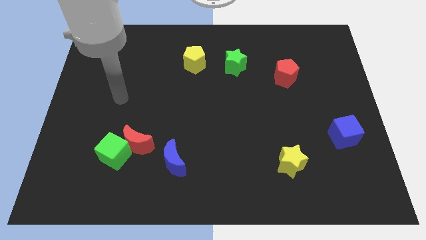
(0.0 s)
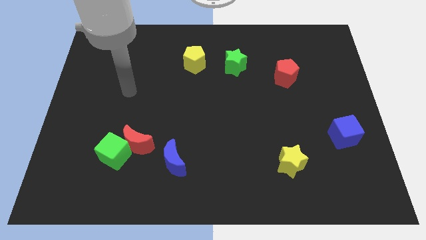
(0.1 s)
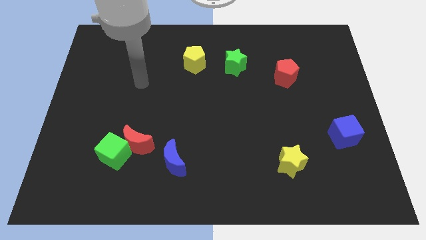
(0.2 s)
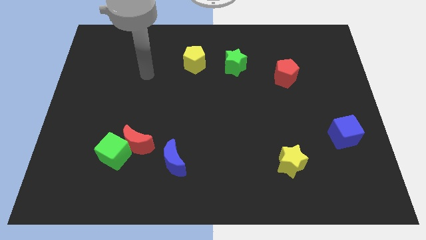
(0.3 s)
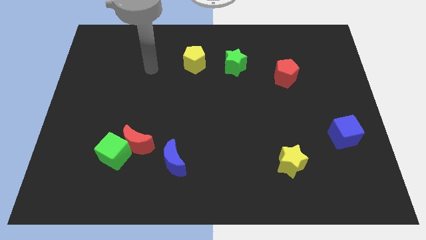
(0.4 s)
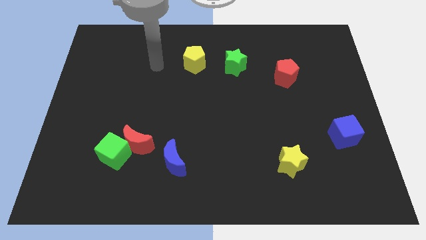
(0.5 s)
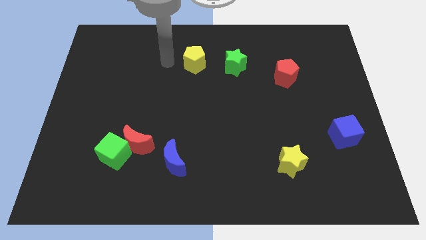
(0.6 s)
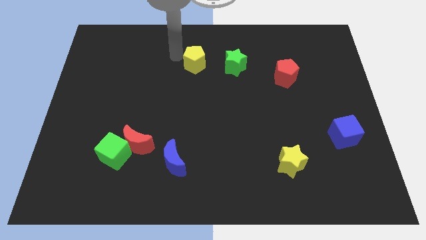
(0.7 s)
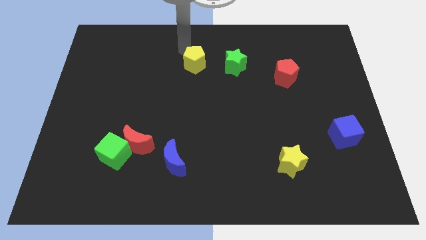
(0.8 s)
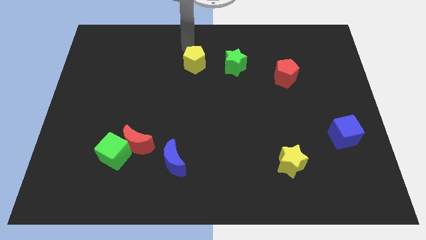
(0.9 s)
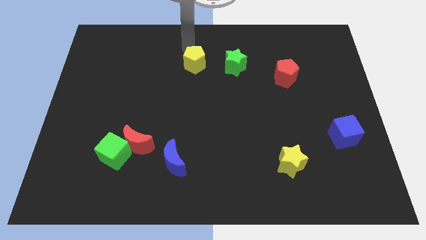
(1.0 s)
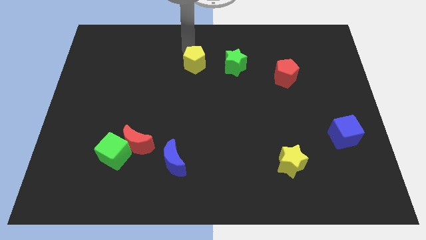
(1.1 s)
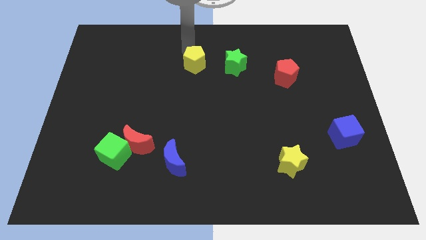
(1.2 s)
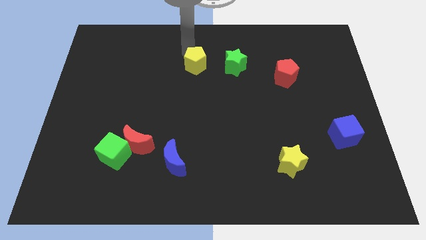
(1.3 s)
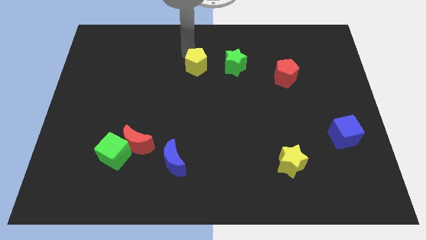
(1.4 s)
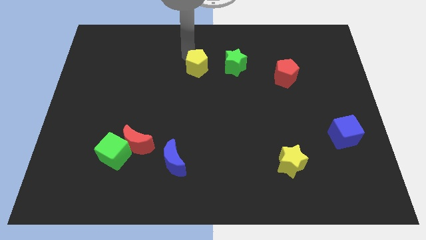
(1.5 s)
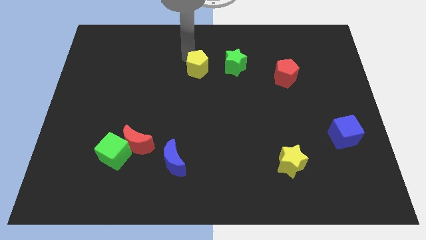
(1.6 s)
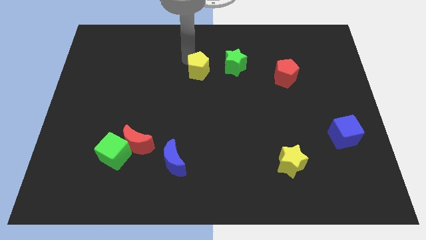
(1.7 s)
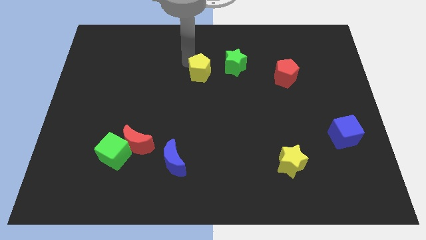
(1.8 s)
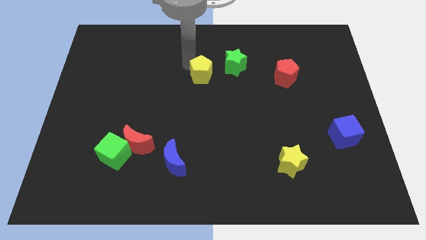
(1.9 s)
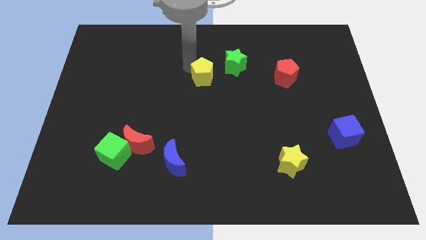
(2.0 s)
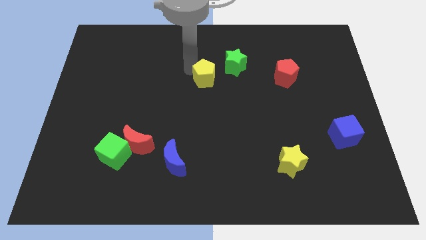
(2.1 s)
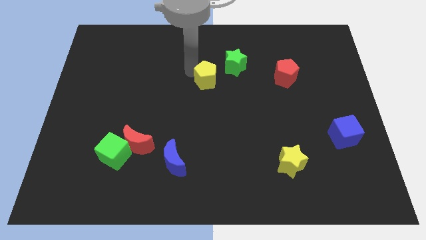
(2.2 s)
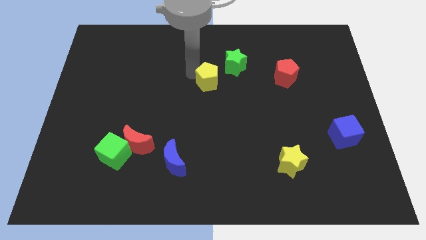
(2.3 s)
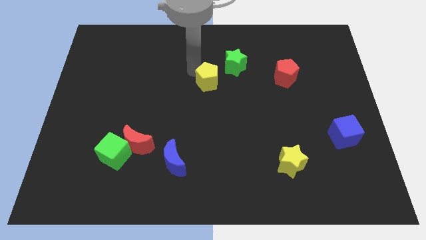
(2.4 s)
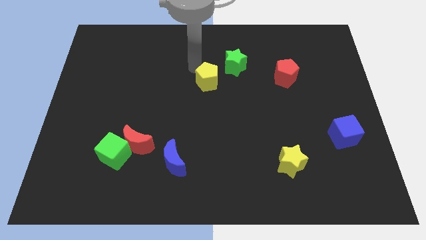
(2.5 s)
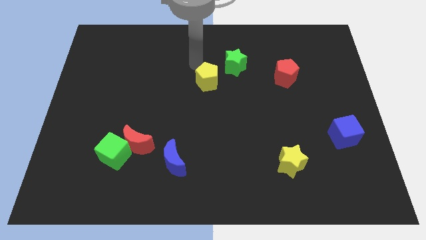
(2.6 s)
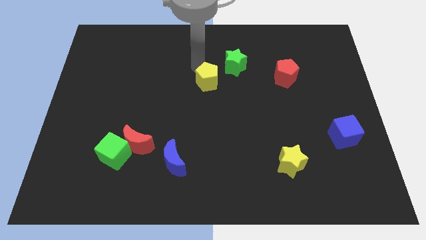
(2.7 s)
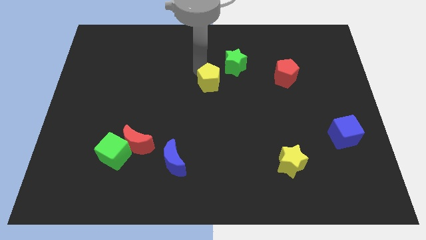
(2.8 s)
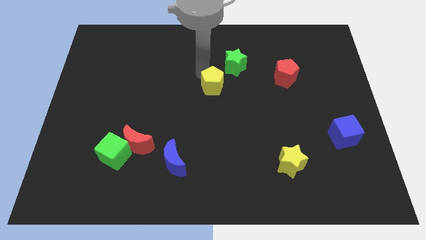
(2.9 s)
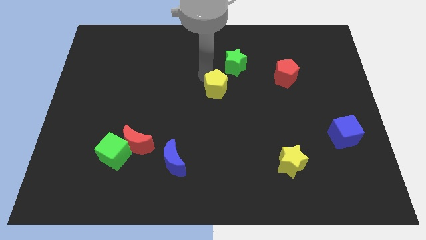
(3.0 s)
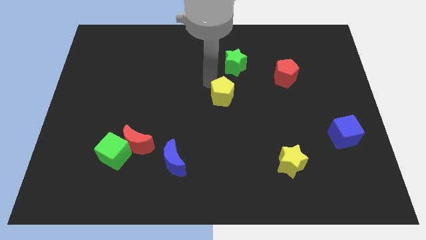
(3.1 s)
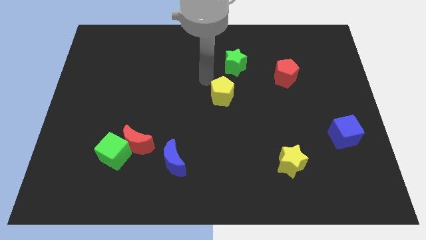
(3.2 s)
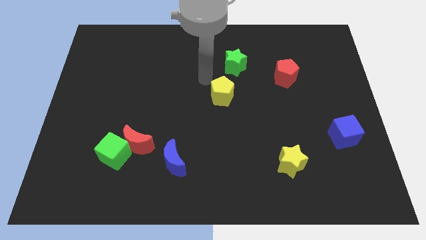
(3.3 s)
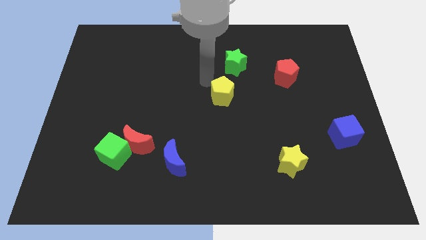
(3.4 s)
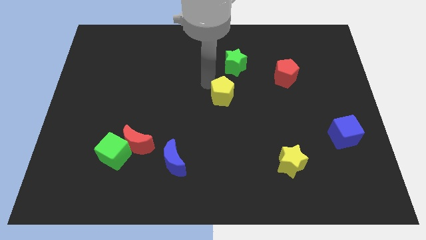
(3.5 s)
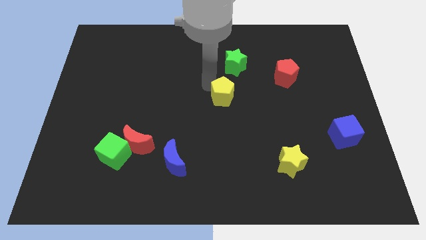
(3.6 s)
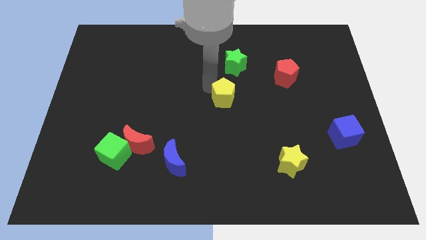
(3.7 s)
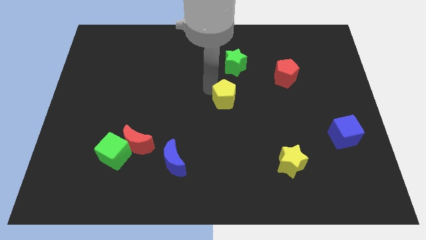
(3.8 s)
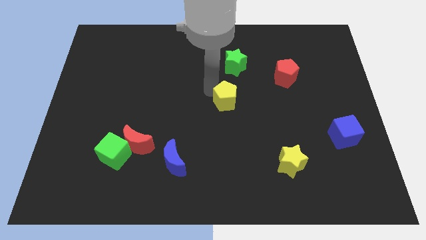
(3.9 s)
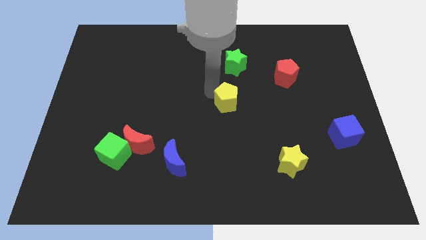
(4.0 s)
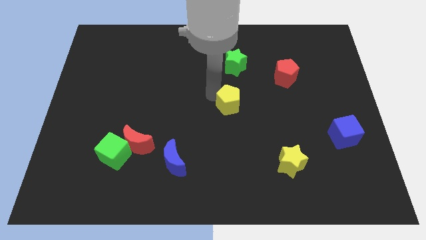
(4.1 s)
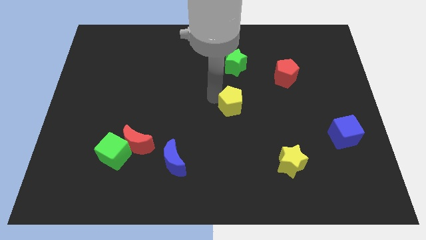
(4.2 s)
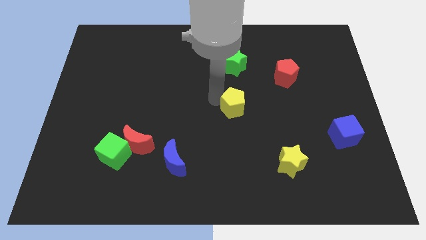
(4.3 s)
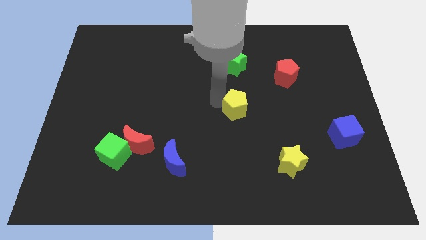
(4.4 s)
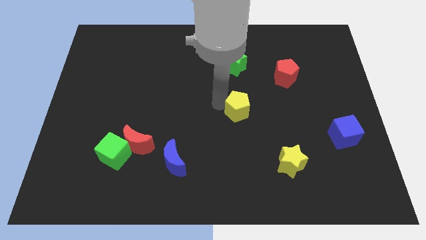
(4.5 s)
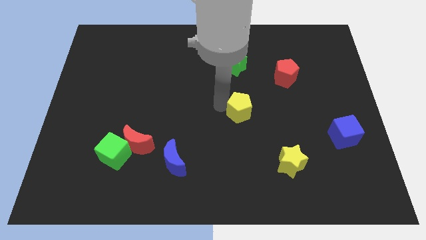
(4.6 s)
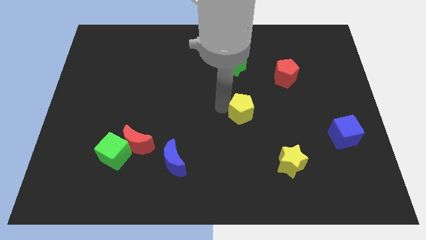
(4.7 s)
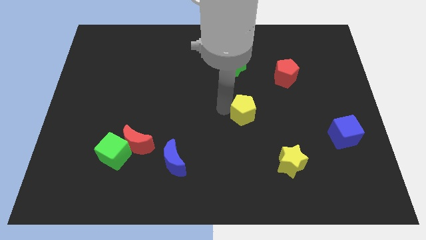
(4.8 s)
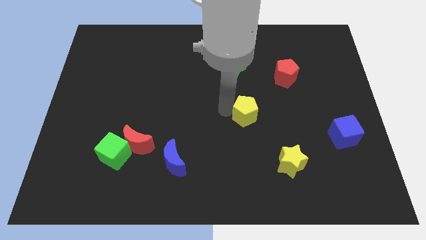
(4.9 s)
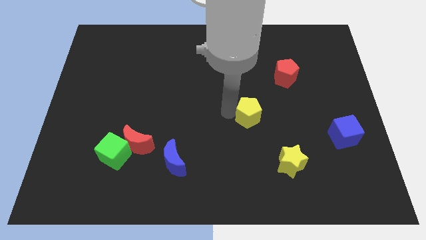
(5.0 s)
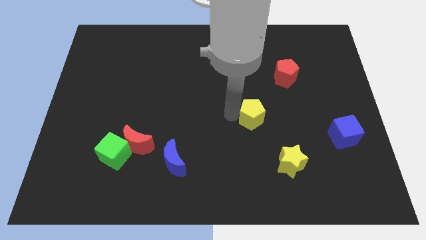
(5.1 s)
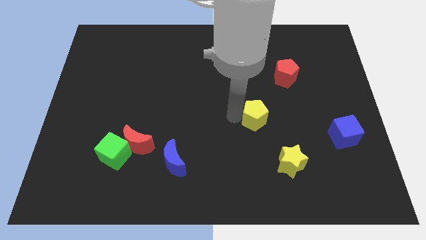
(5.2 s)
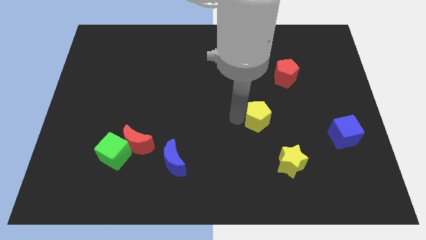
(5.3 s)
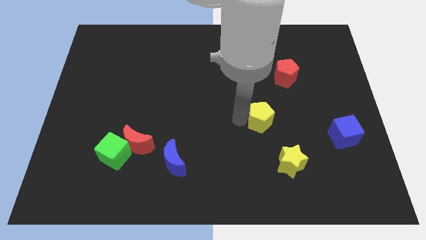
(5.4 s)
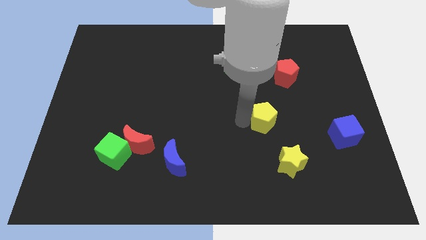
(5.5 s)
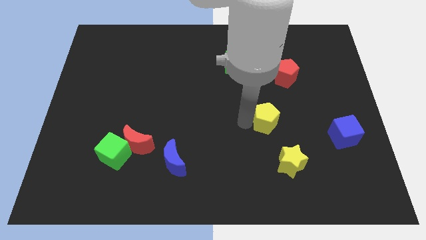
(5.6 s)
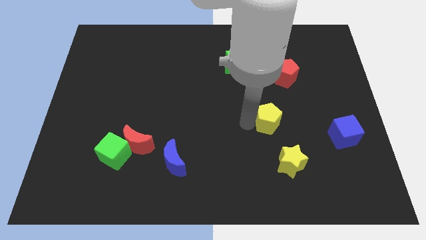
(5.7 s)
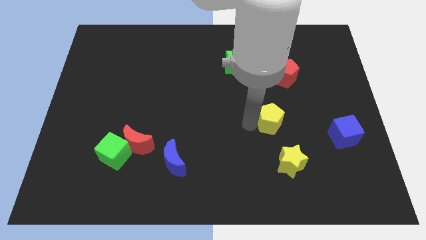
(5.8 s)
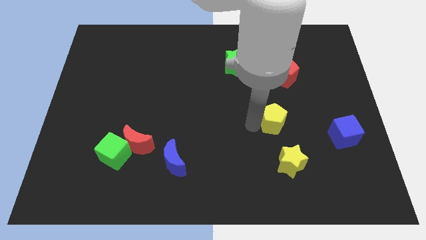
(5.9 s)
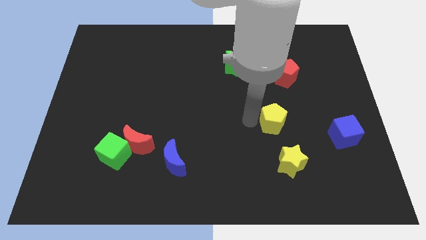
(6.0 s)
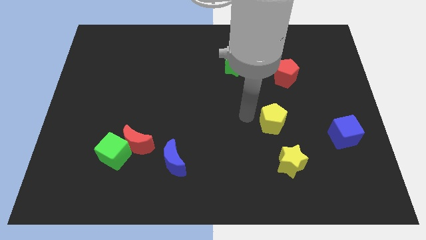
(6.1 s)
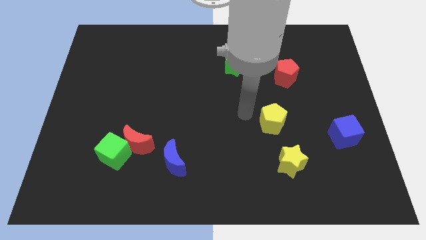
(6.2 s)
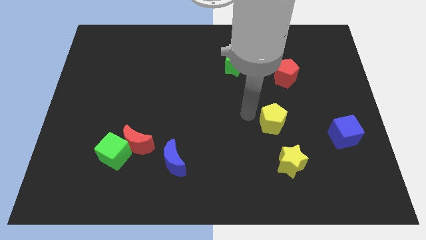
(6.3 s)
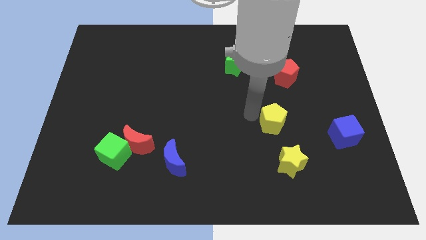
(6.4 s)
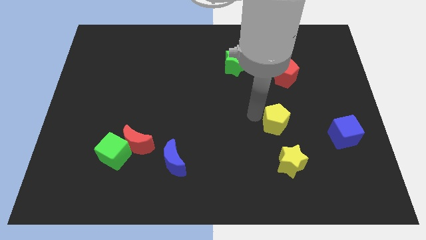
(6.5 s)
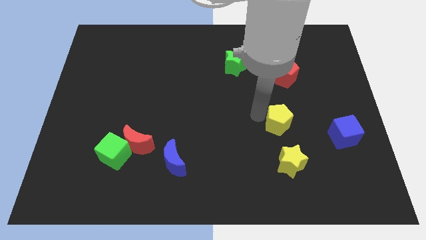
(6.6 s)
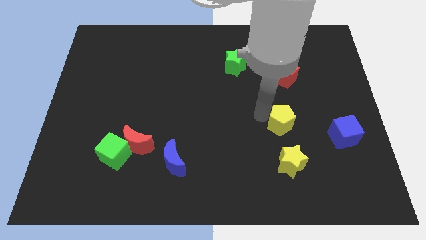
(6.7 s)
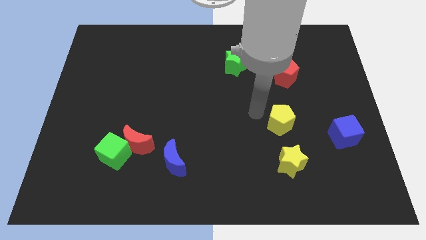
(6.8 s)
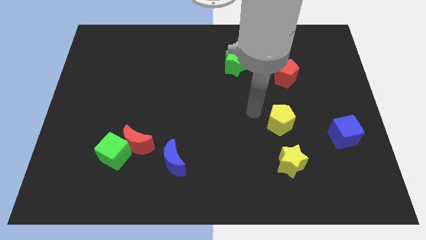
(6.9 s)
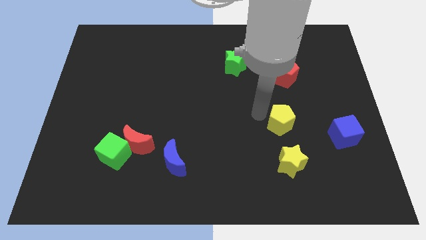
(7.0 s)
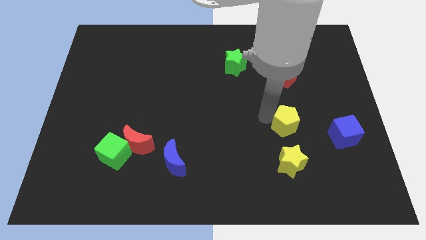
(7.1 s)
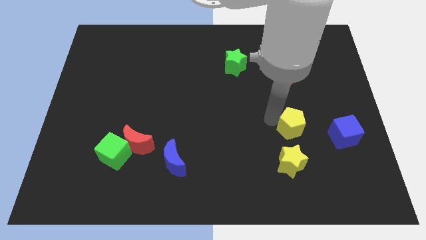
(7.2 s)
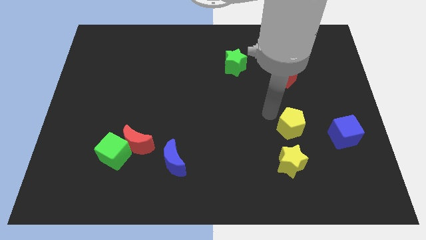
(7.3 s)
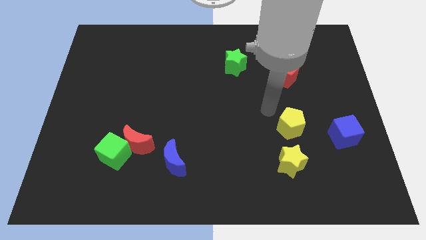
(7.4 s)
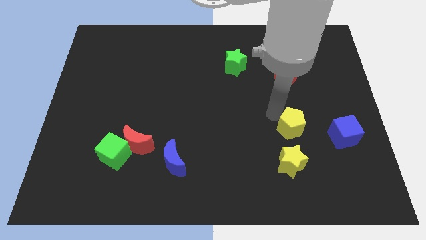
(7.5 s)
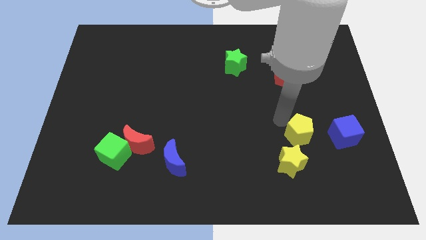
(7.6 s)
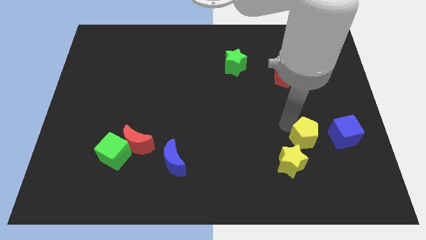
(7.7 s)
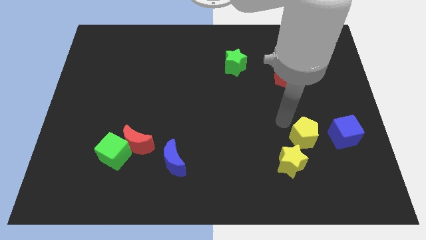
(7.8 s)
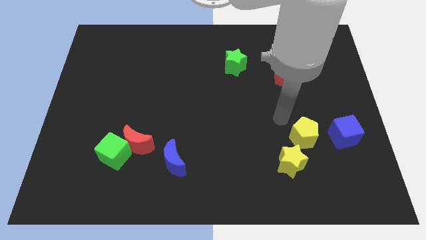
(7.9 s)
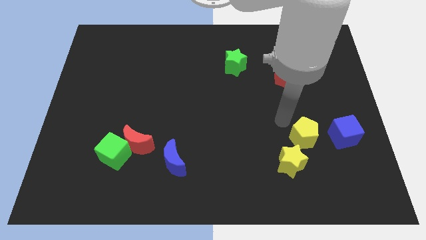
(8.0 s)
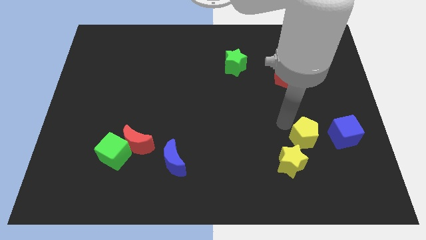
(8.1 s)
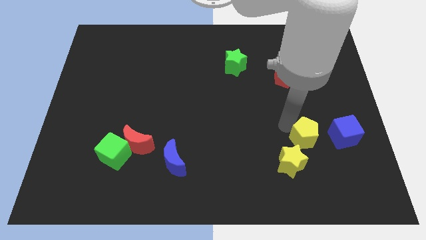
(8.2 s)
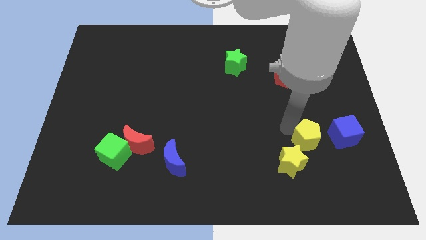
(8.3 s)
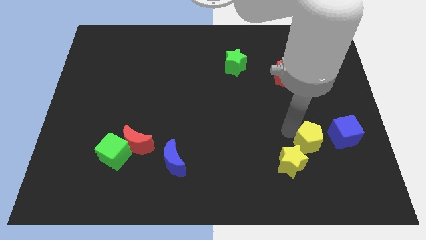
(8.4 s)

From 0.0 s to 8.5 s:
move the yellow pentagon to the bottom left side of the blue cube
